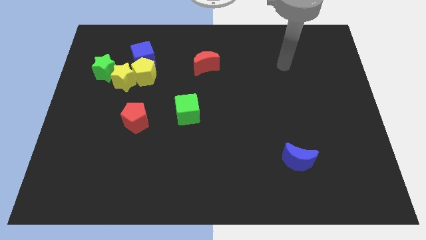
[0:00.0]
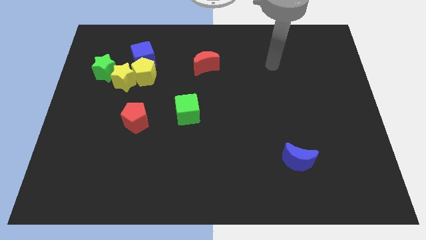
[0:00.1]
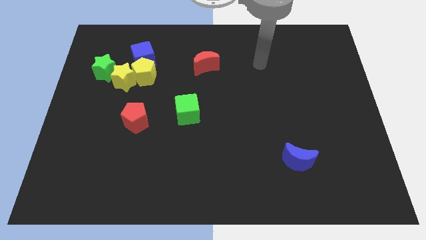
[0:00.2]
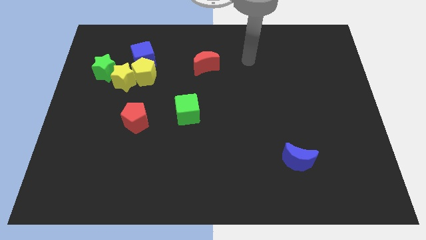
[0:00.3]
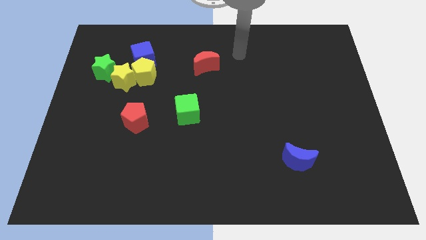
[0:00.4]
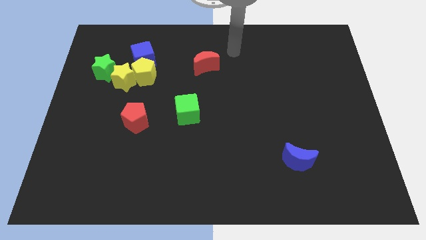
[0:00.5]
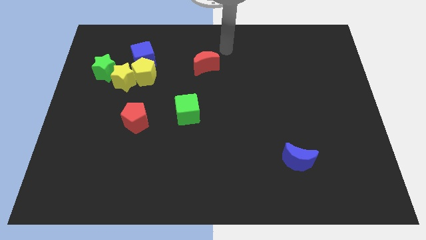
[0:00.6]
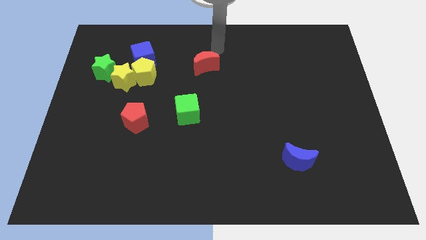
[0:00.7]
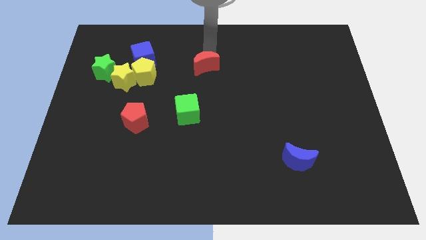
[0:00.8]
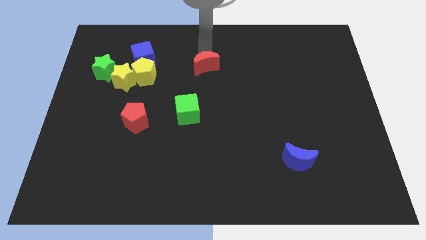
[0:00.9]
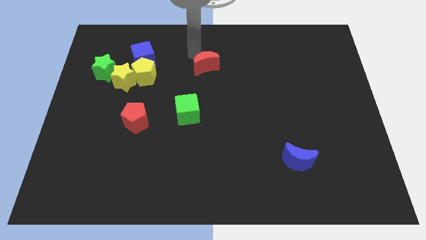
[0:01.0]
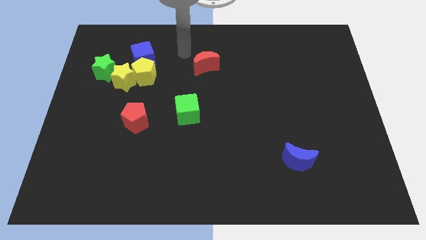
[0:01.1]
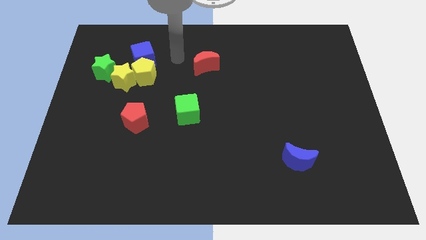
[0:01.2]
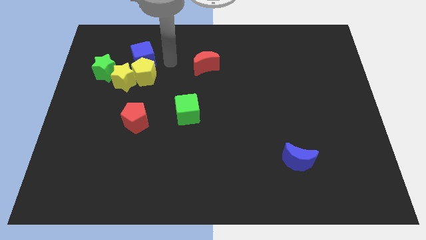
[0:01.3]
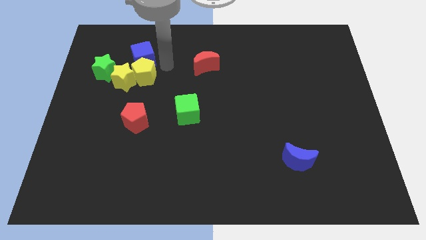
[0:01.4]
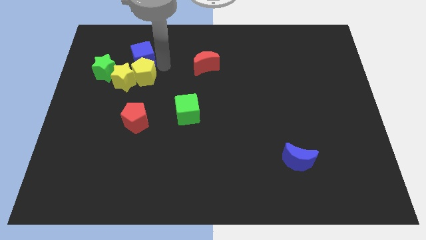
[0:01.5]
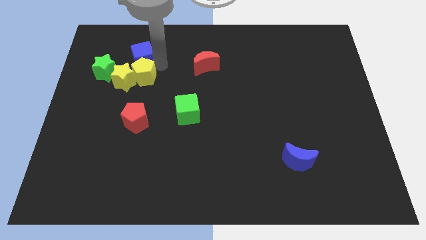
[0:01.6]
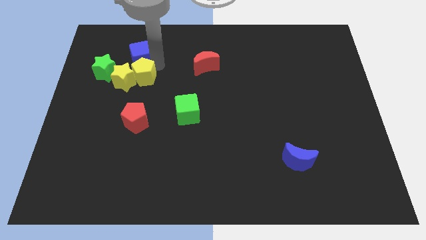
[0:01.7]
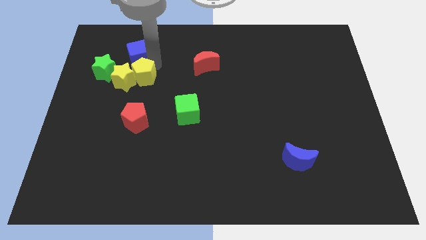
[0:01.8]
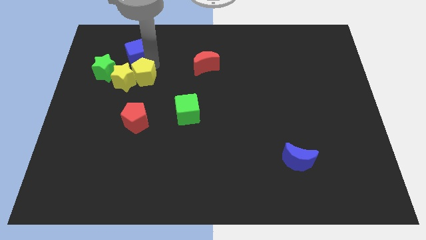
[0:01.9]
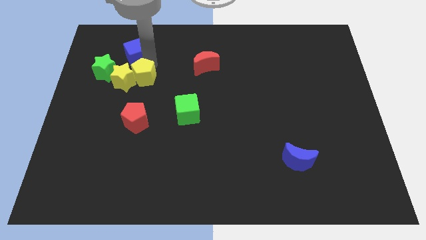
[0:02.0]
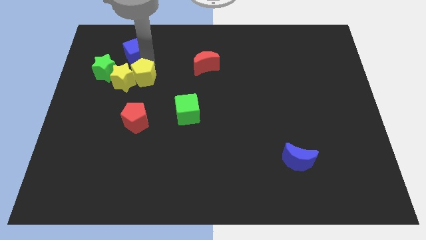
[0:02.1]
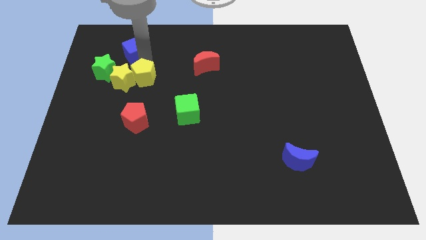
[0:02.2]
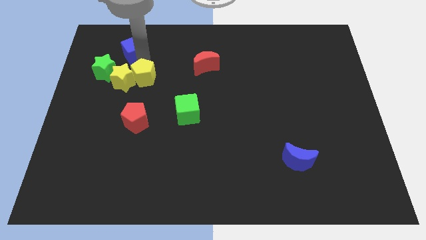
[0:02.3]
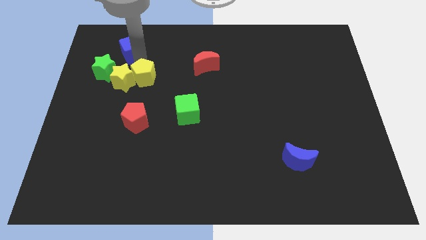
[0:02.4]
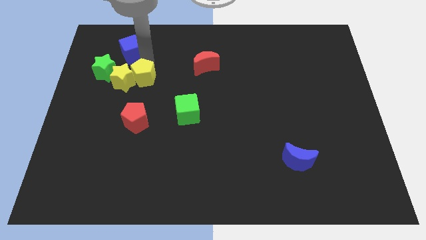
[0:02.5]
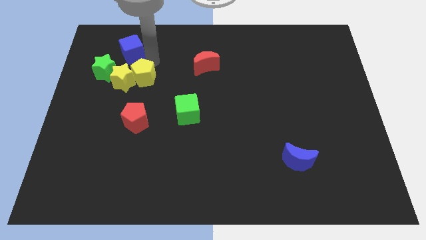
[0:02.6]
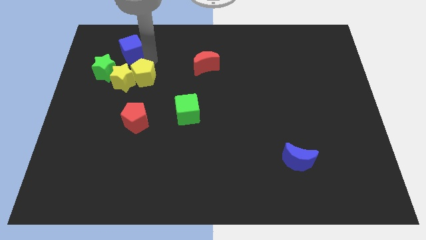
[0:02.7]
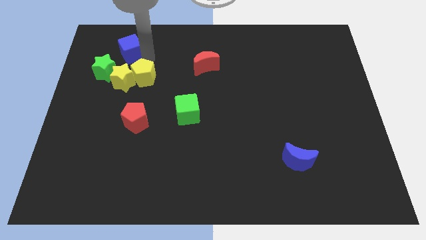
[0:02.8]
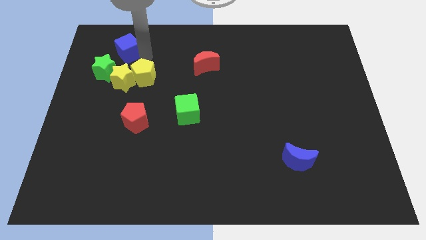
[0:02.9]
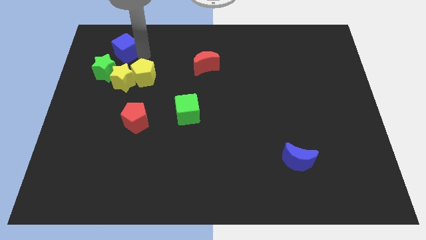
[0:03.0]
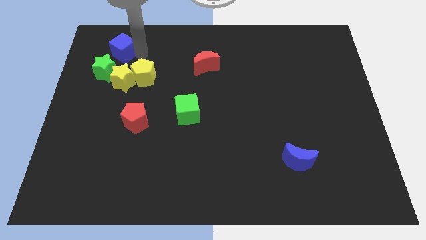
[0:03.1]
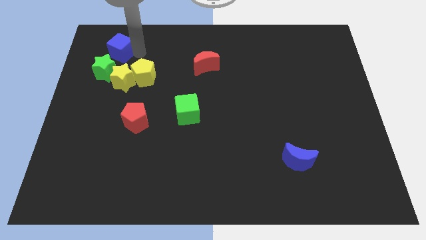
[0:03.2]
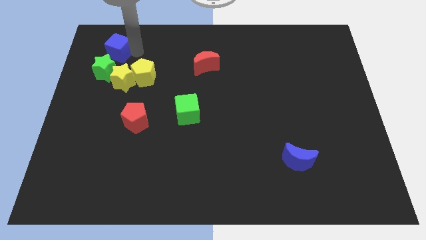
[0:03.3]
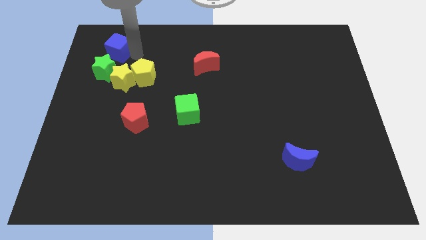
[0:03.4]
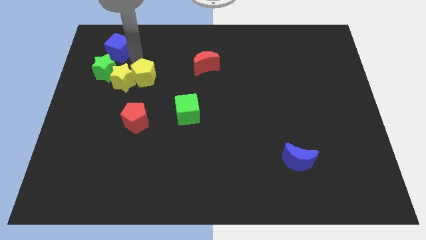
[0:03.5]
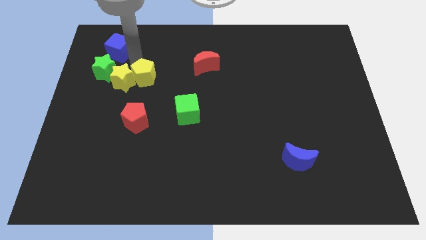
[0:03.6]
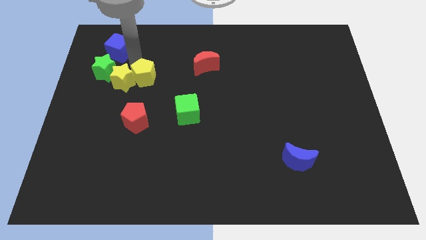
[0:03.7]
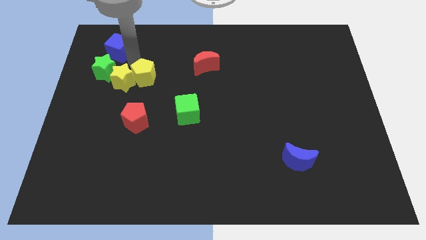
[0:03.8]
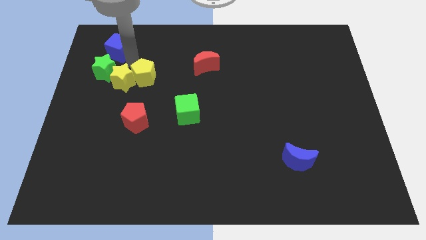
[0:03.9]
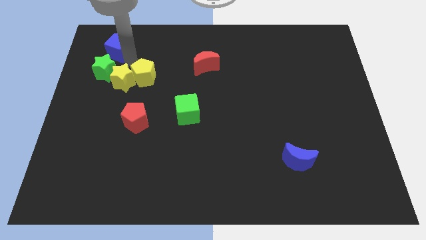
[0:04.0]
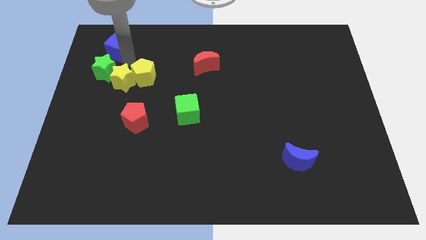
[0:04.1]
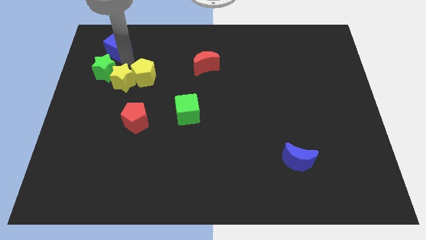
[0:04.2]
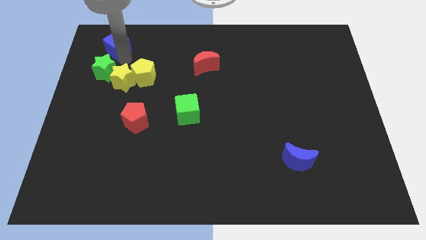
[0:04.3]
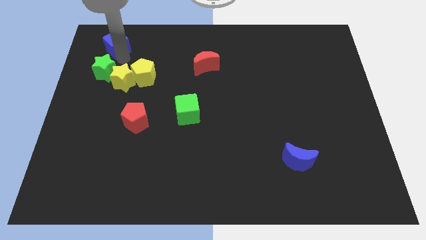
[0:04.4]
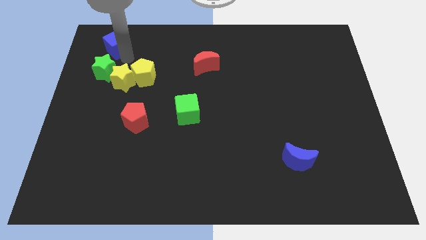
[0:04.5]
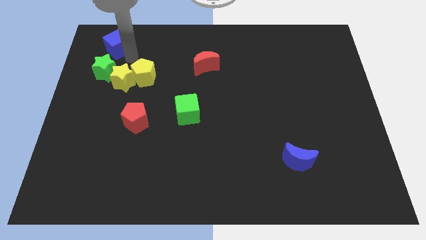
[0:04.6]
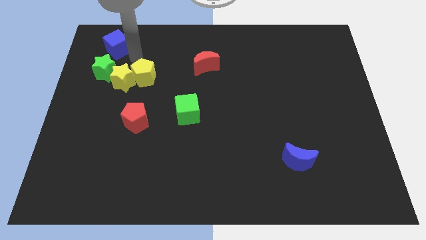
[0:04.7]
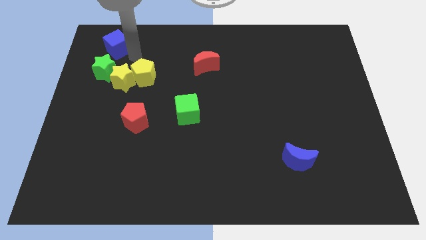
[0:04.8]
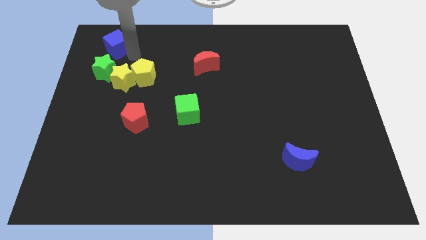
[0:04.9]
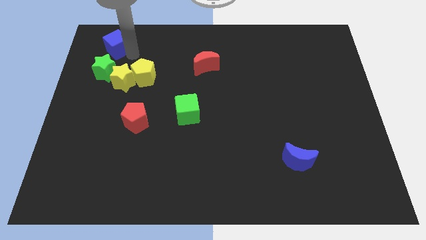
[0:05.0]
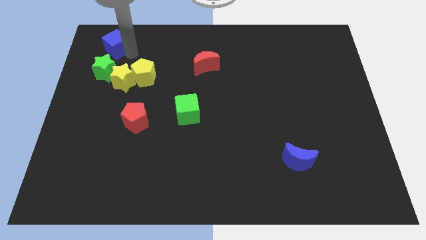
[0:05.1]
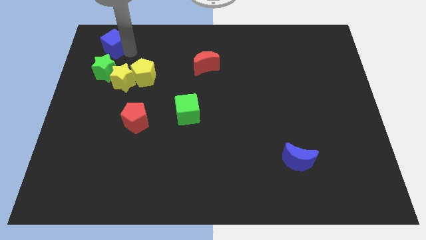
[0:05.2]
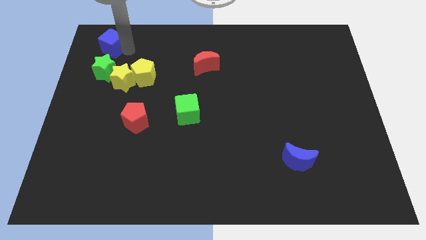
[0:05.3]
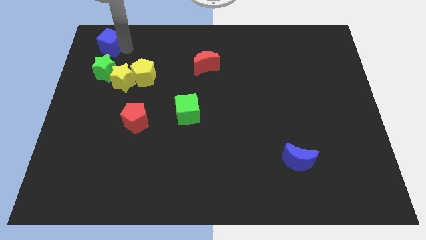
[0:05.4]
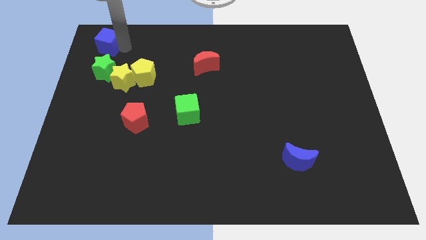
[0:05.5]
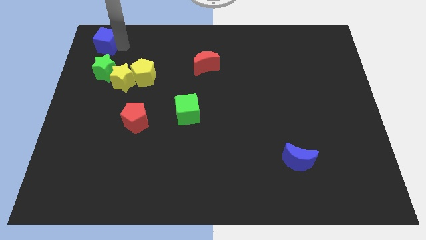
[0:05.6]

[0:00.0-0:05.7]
move the blue cube to the top left of the board

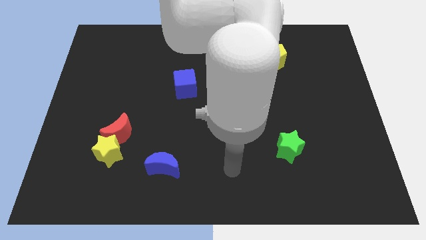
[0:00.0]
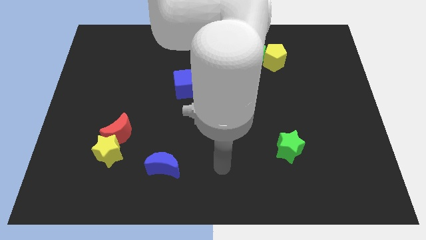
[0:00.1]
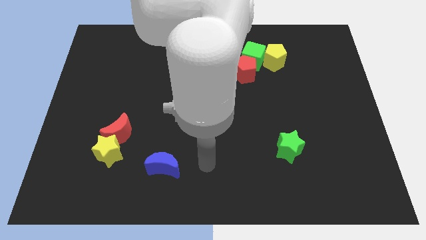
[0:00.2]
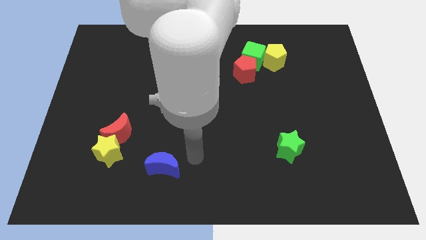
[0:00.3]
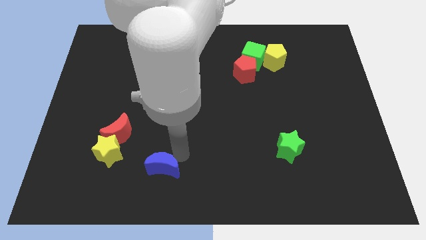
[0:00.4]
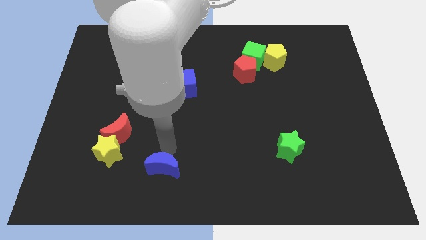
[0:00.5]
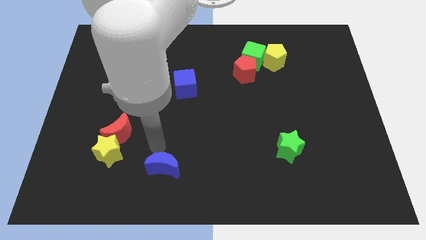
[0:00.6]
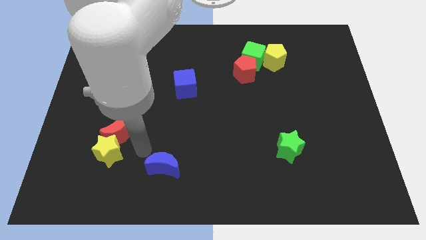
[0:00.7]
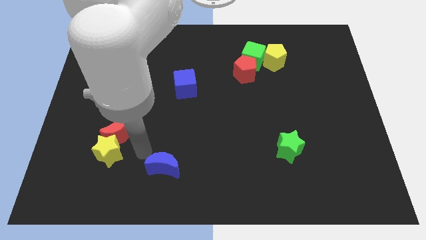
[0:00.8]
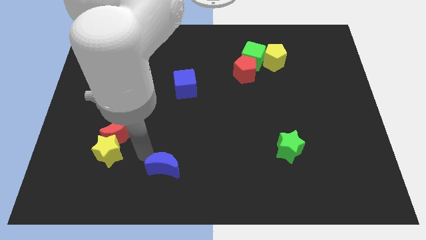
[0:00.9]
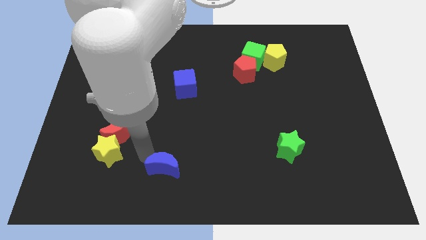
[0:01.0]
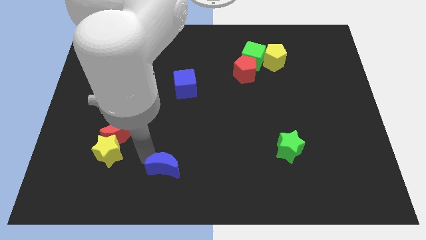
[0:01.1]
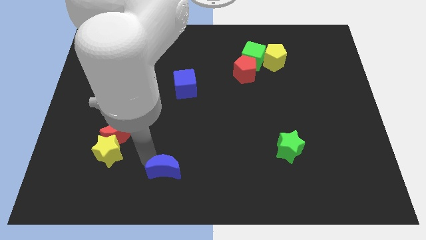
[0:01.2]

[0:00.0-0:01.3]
slide the blue moon to the bottom side
